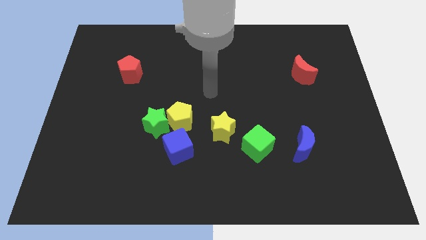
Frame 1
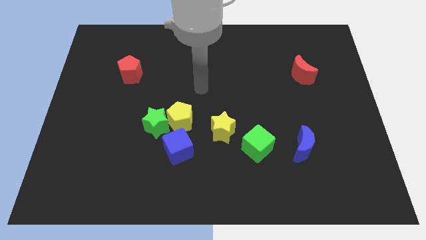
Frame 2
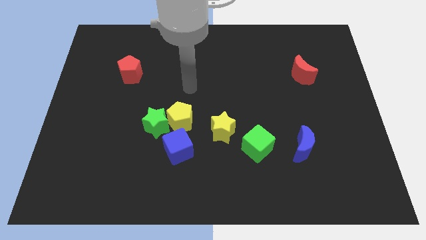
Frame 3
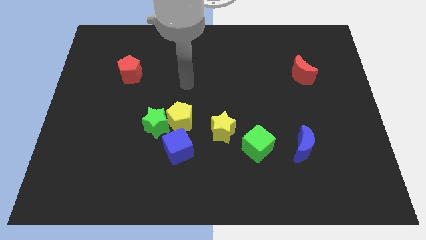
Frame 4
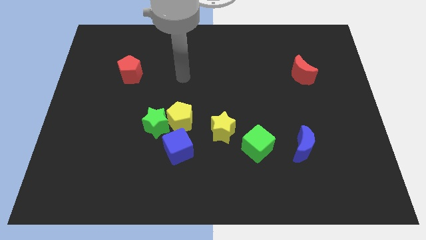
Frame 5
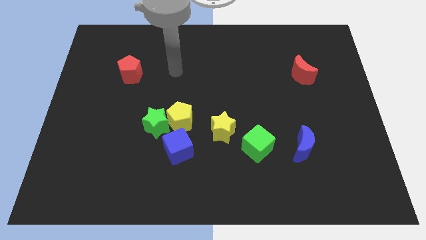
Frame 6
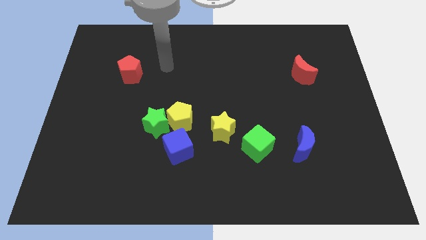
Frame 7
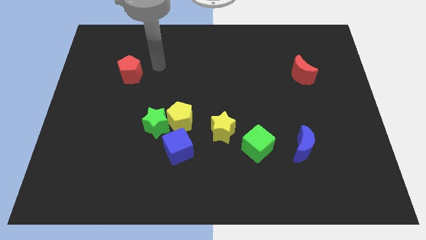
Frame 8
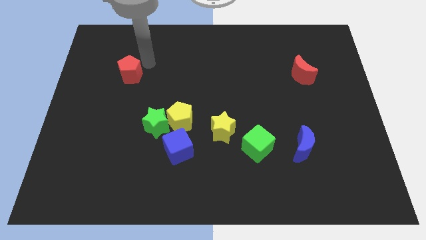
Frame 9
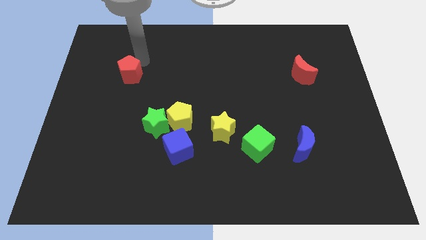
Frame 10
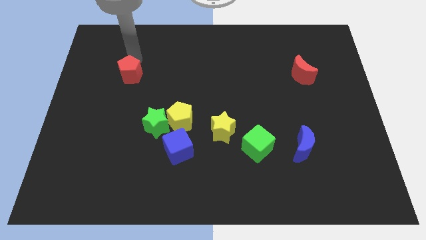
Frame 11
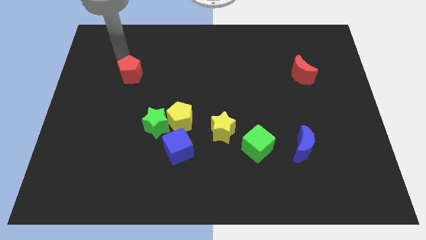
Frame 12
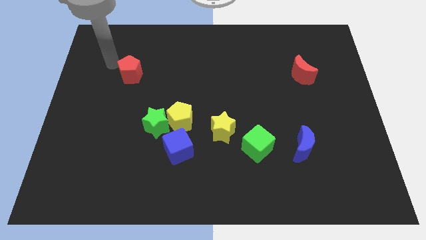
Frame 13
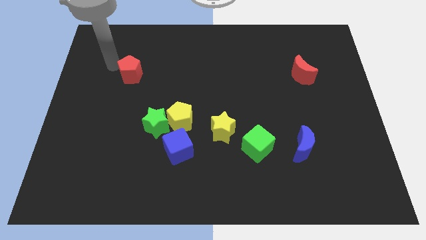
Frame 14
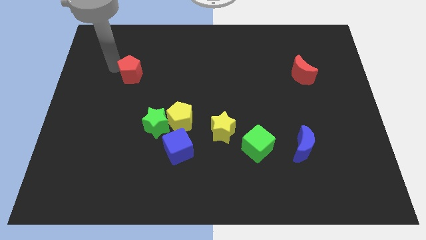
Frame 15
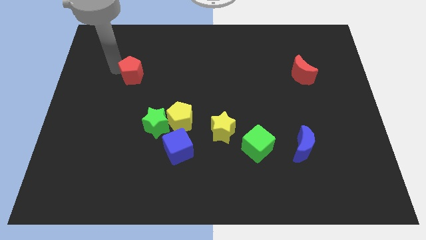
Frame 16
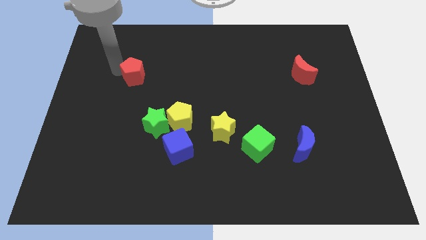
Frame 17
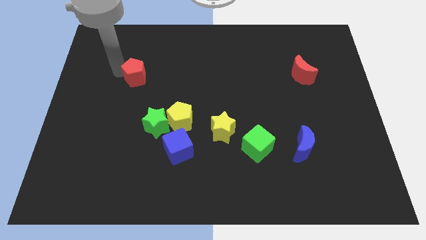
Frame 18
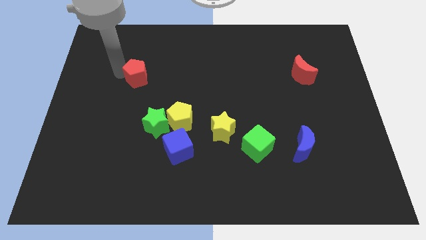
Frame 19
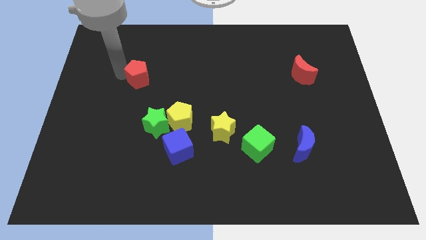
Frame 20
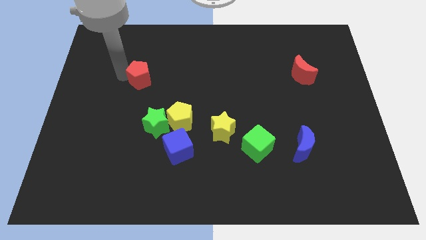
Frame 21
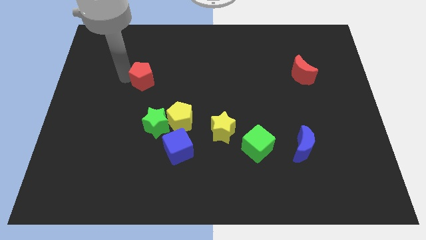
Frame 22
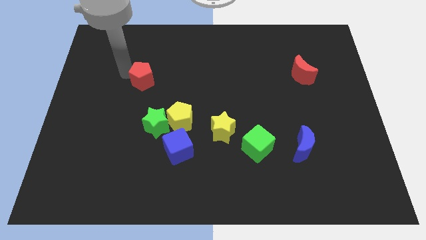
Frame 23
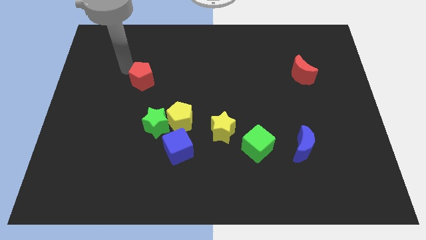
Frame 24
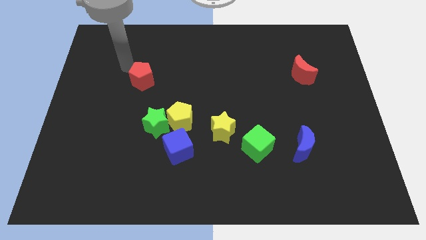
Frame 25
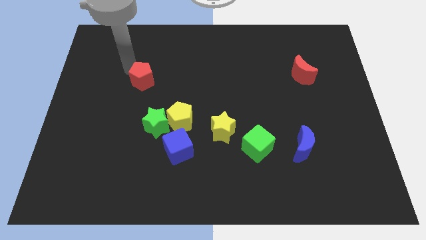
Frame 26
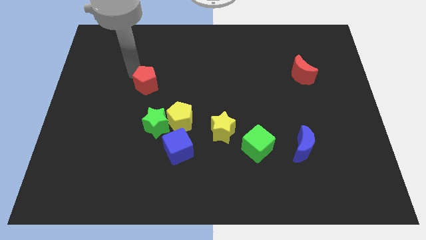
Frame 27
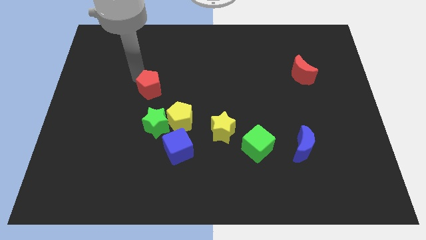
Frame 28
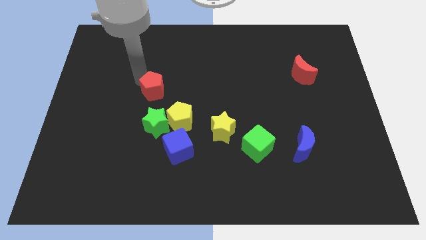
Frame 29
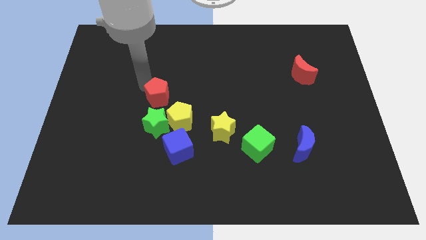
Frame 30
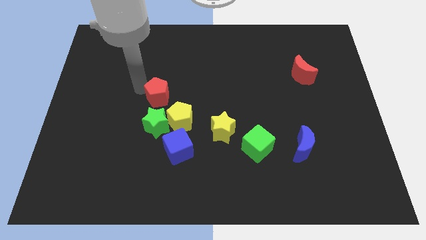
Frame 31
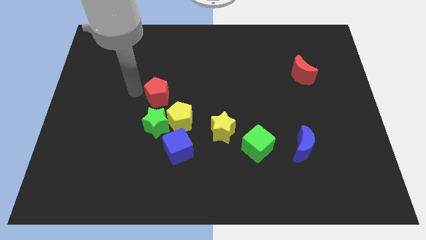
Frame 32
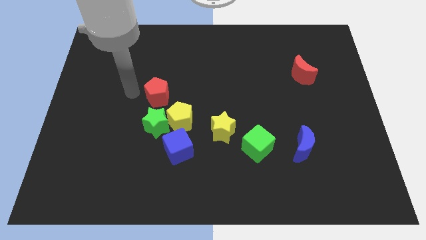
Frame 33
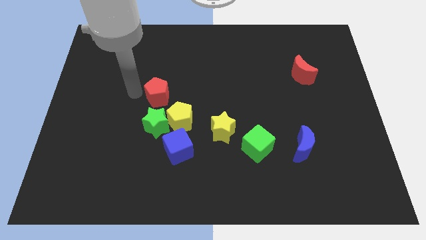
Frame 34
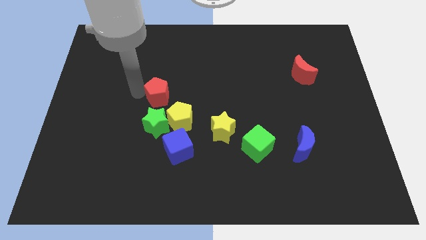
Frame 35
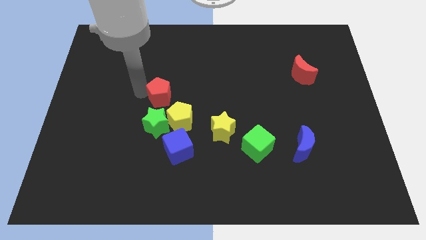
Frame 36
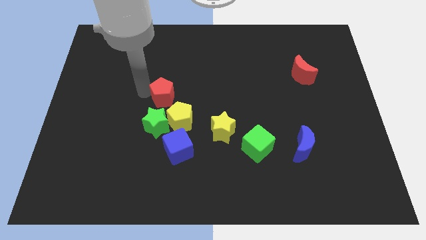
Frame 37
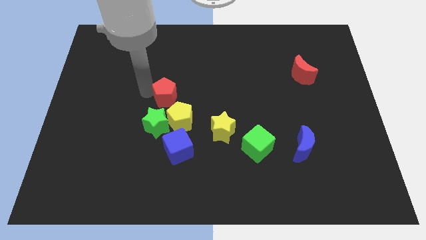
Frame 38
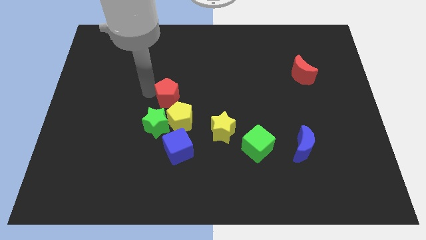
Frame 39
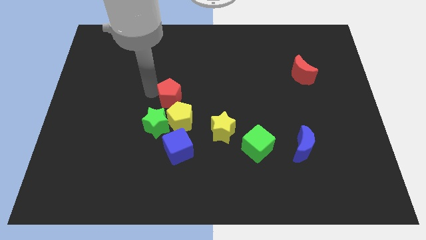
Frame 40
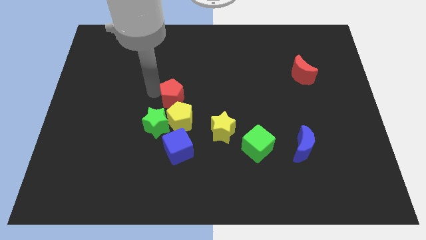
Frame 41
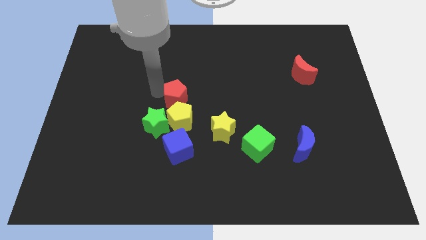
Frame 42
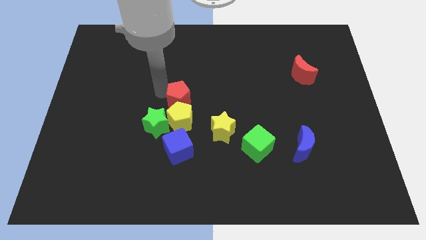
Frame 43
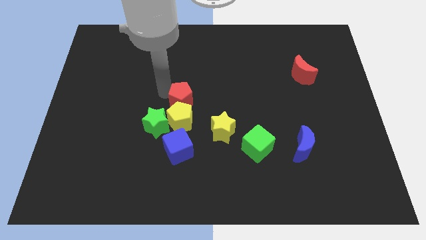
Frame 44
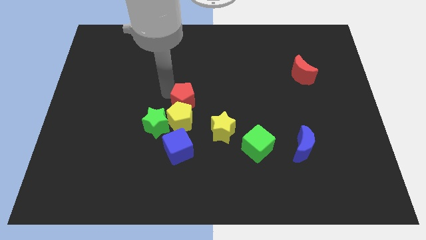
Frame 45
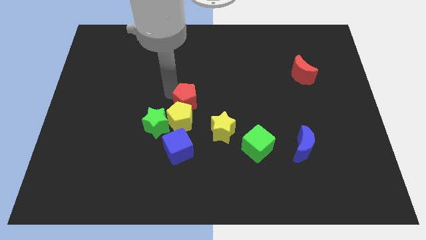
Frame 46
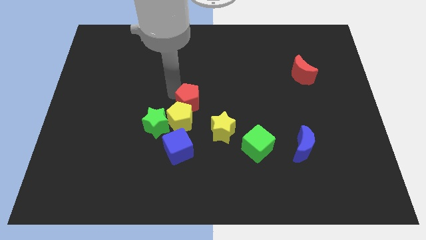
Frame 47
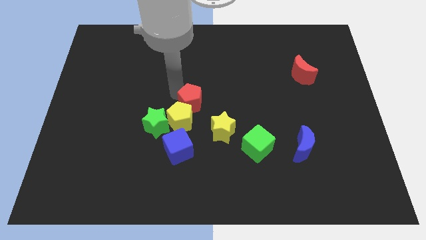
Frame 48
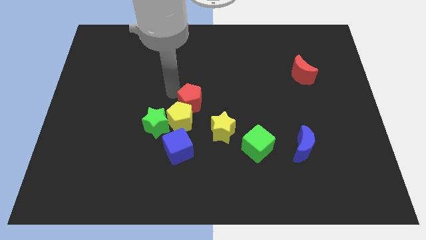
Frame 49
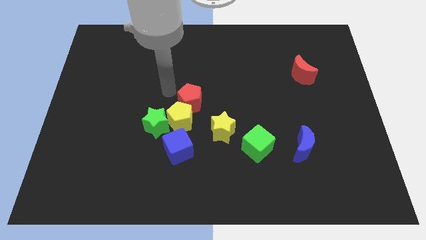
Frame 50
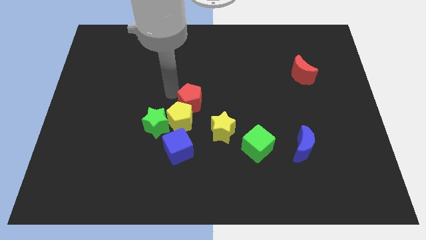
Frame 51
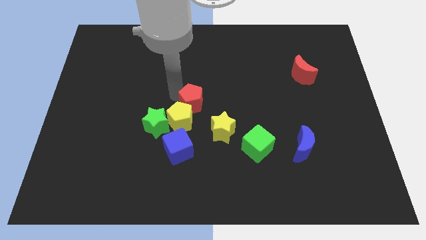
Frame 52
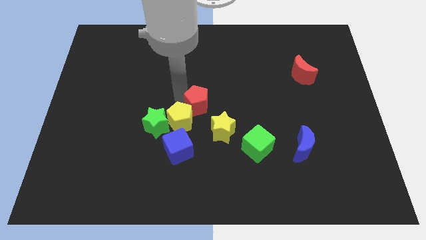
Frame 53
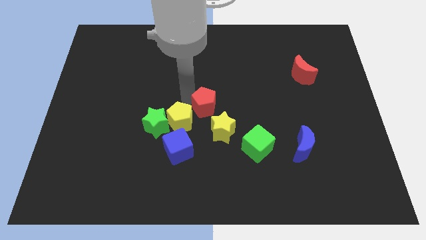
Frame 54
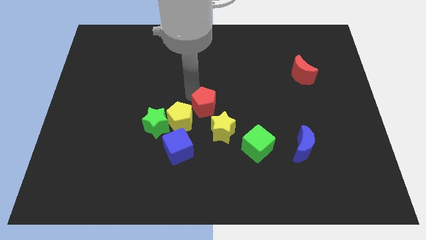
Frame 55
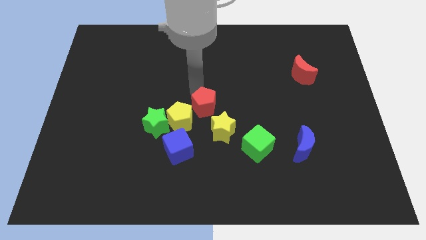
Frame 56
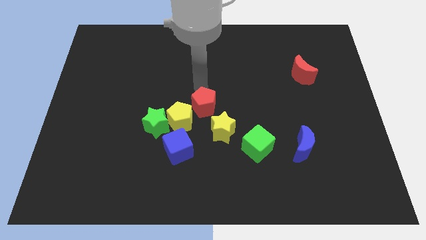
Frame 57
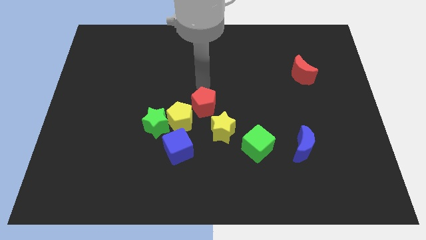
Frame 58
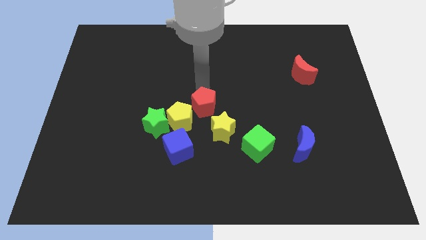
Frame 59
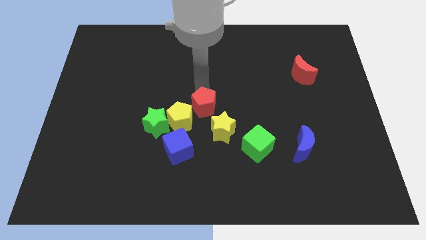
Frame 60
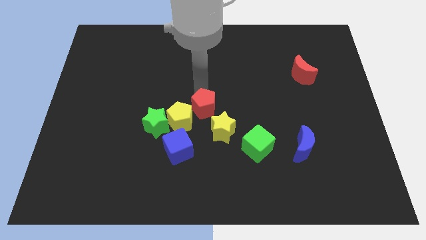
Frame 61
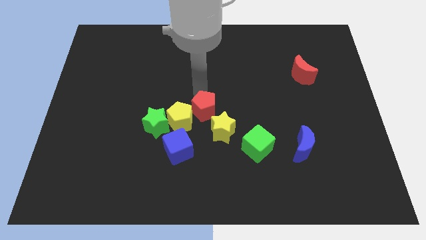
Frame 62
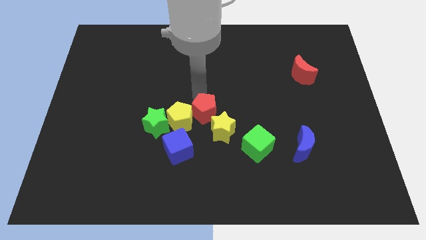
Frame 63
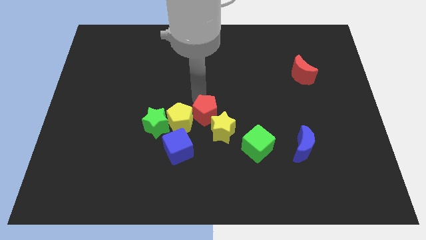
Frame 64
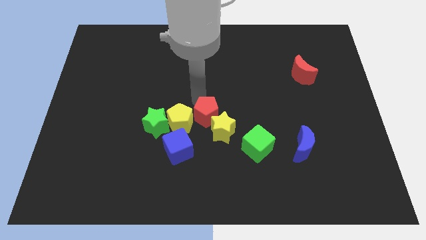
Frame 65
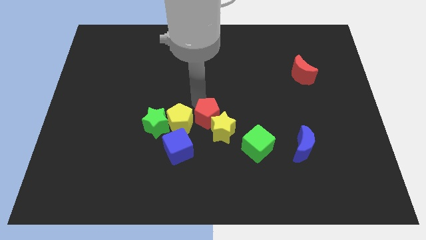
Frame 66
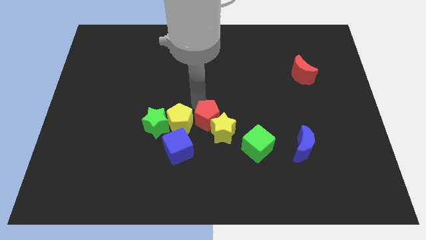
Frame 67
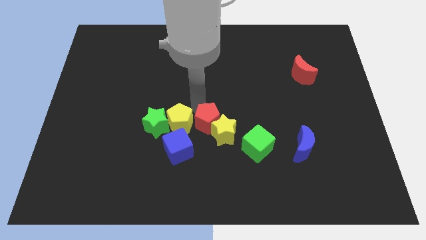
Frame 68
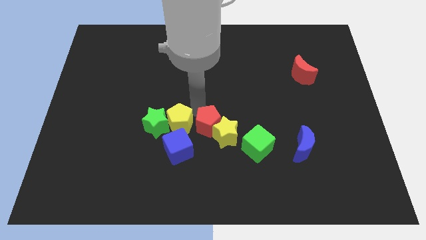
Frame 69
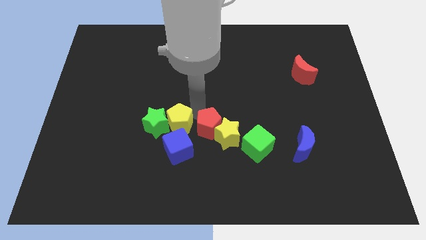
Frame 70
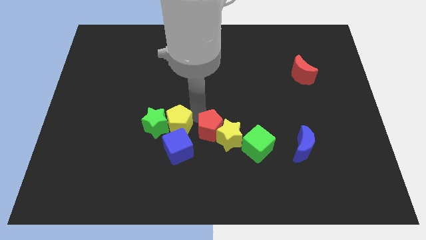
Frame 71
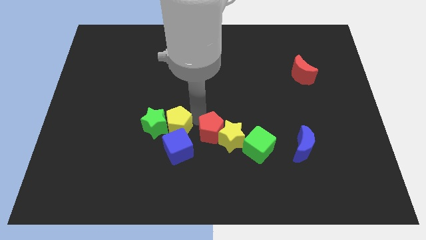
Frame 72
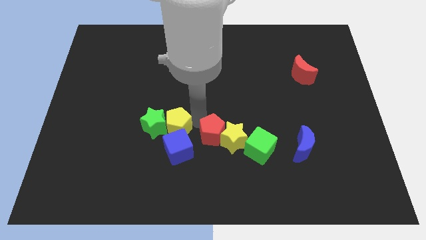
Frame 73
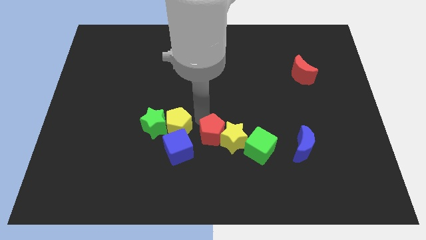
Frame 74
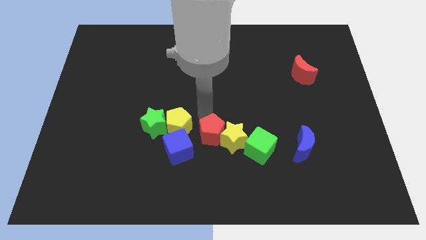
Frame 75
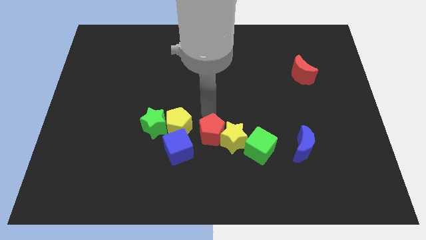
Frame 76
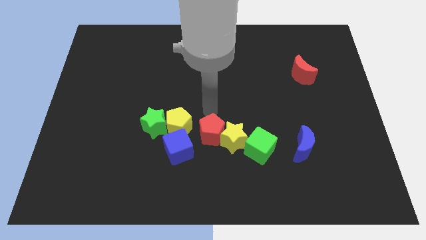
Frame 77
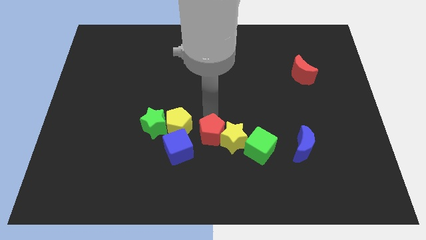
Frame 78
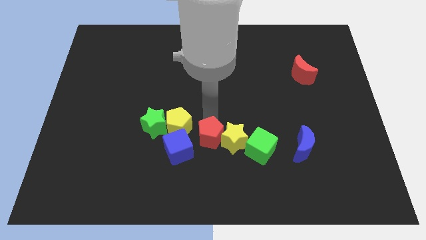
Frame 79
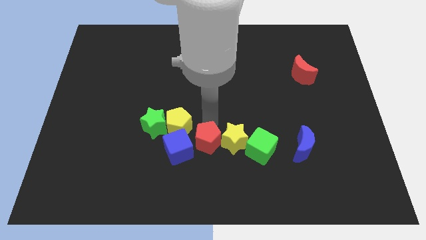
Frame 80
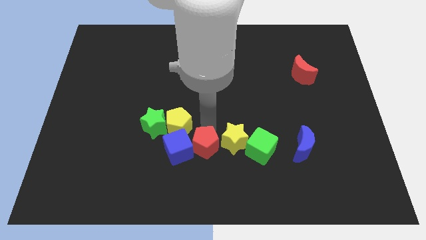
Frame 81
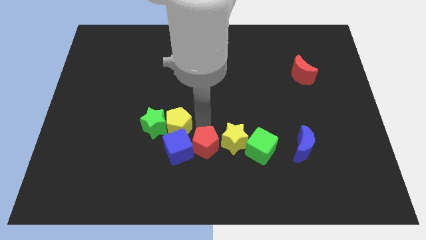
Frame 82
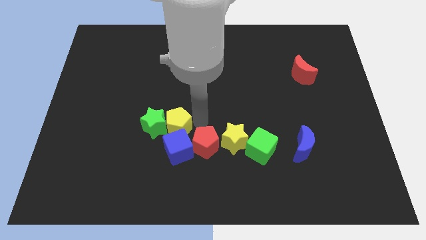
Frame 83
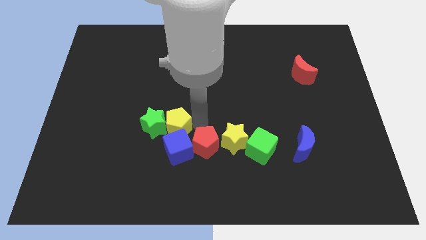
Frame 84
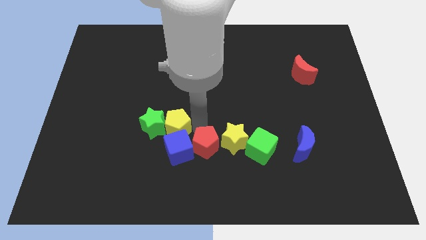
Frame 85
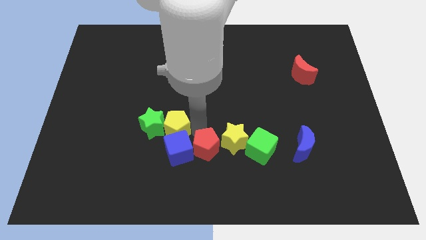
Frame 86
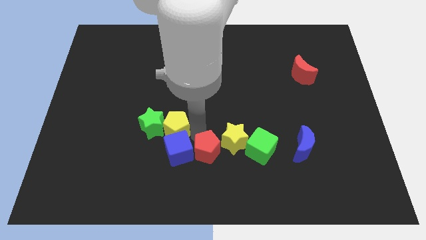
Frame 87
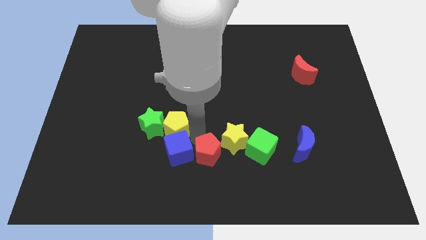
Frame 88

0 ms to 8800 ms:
put the red pentagon to the bottom
